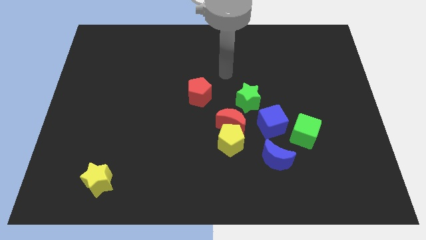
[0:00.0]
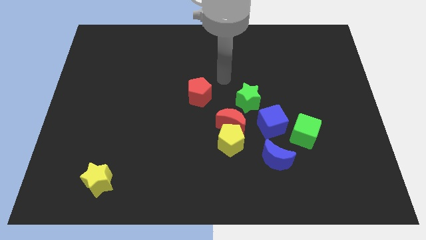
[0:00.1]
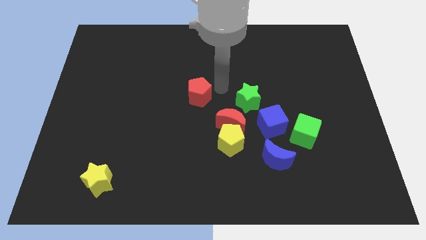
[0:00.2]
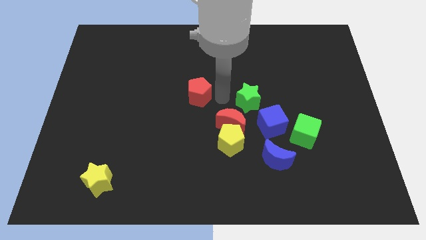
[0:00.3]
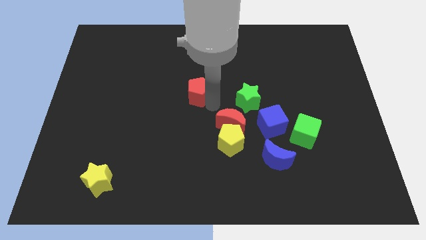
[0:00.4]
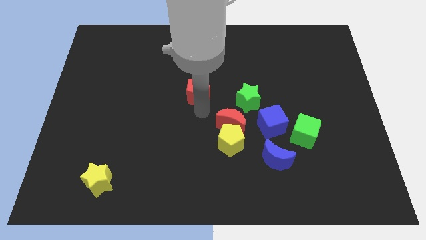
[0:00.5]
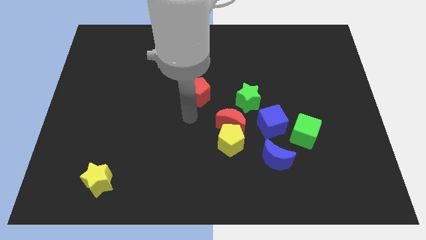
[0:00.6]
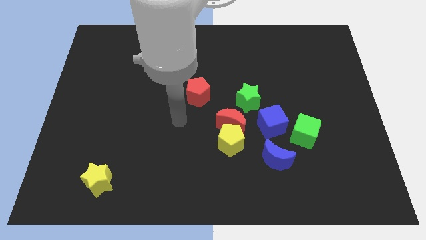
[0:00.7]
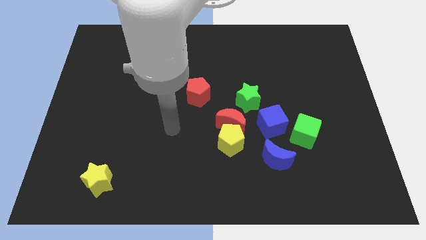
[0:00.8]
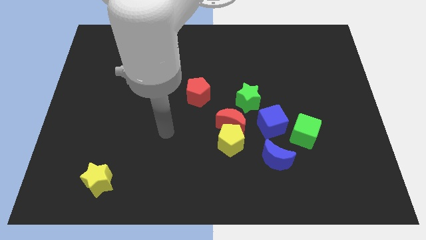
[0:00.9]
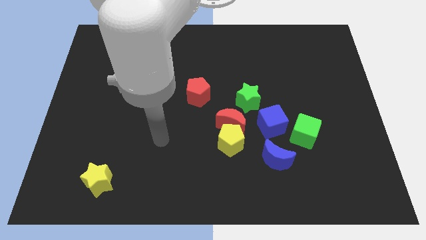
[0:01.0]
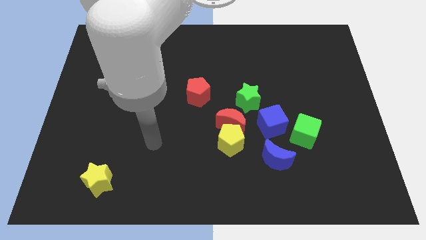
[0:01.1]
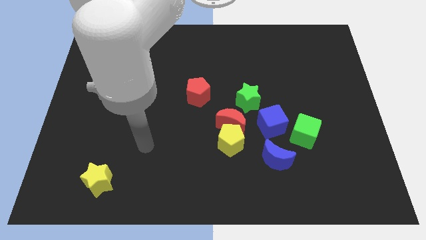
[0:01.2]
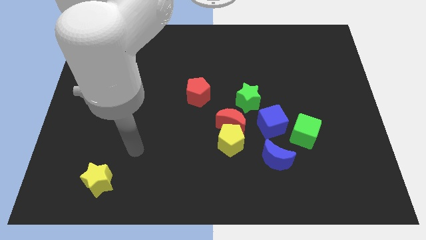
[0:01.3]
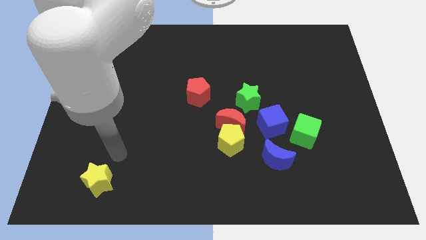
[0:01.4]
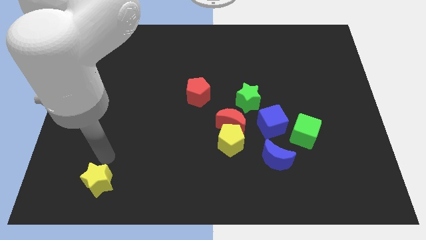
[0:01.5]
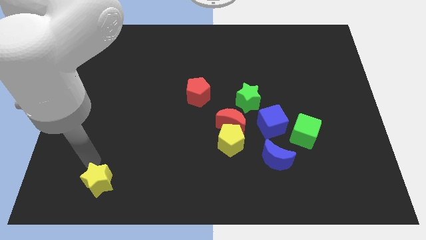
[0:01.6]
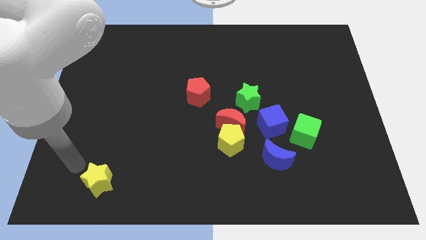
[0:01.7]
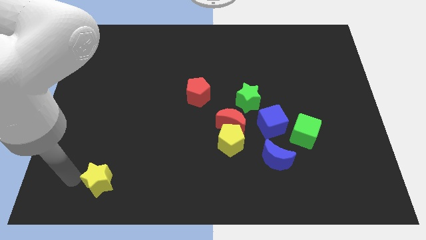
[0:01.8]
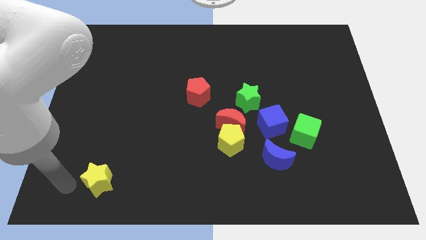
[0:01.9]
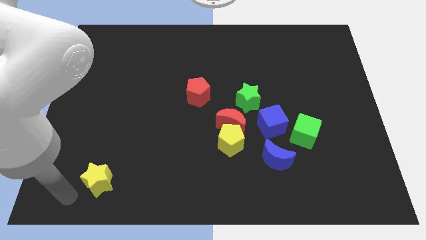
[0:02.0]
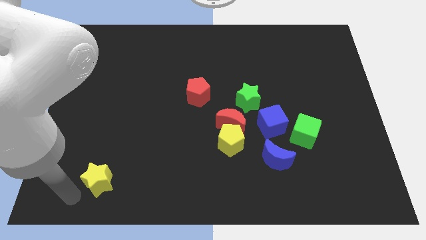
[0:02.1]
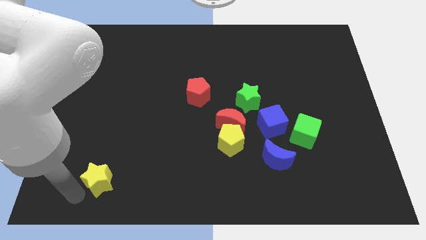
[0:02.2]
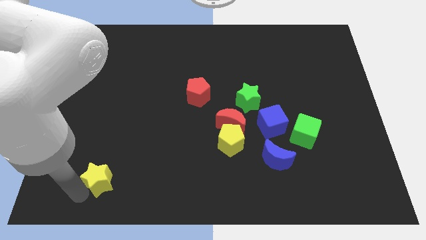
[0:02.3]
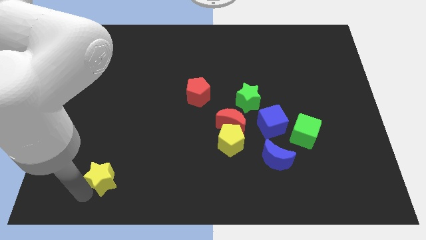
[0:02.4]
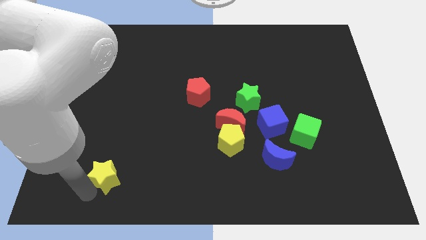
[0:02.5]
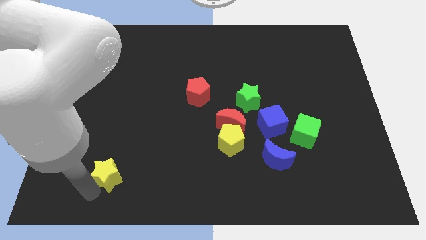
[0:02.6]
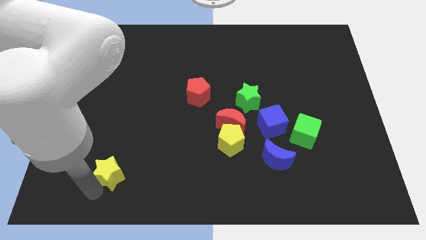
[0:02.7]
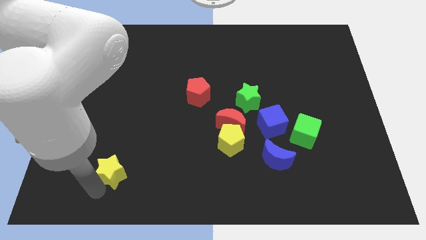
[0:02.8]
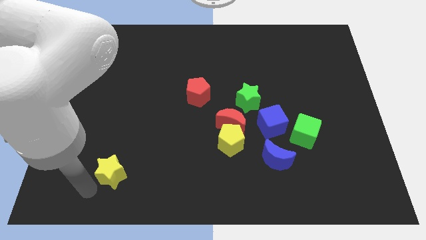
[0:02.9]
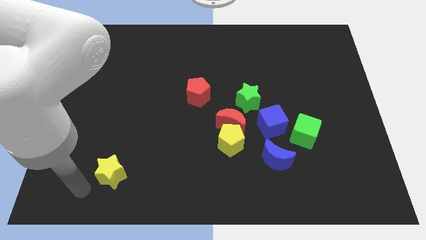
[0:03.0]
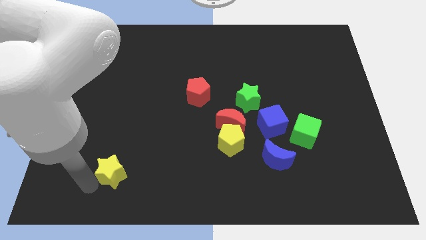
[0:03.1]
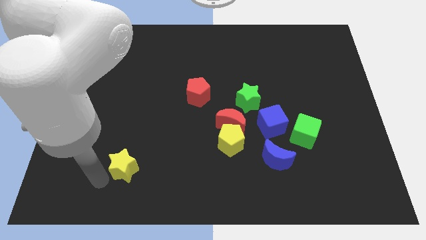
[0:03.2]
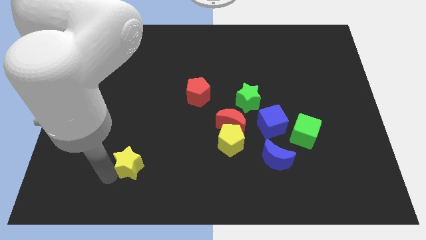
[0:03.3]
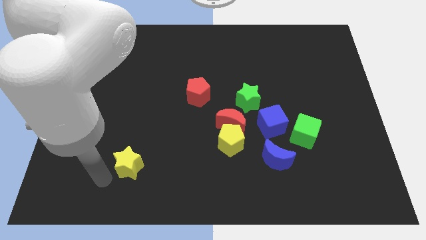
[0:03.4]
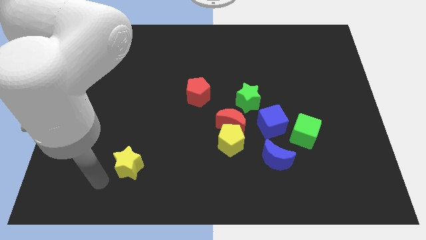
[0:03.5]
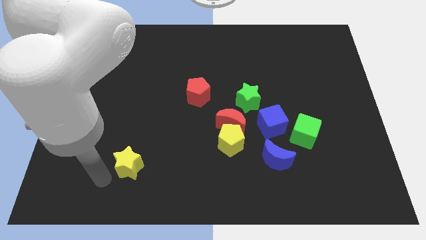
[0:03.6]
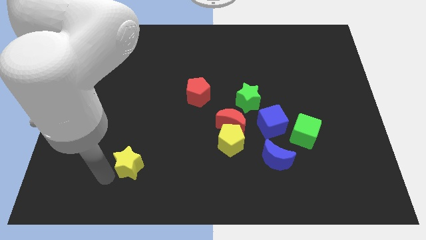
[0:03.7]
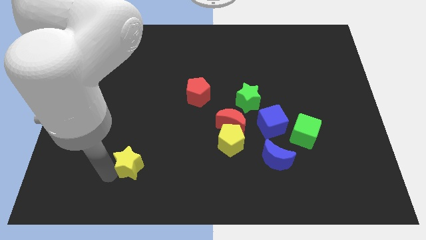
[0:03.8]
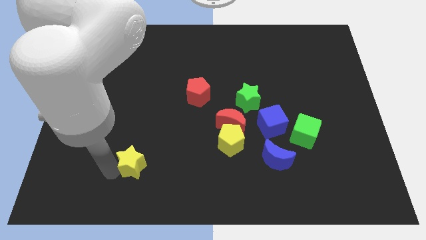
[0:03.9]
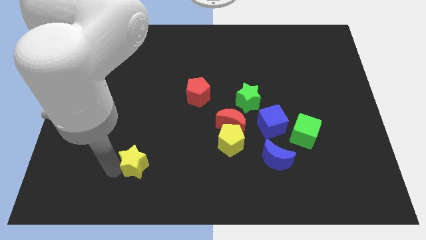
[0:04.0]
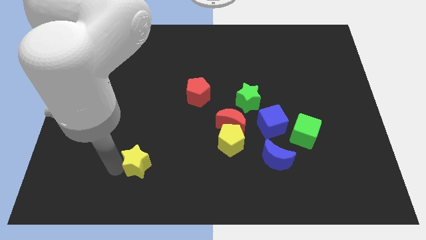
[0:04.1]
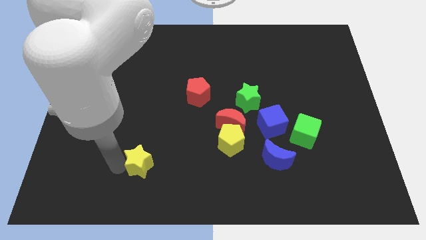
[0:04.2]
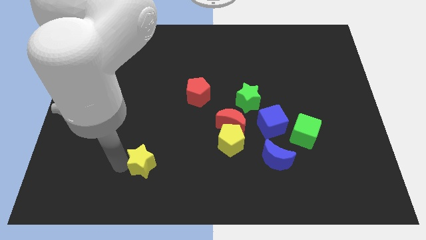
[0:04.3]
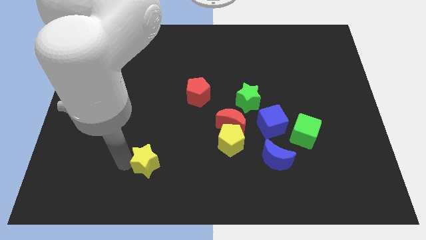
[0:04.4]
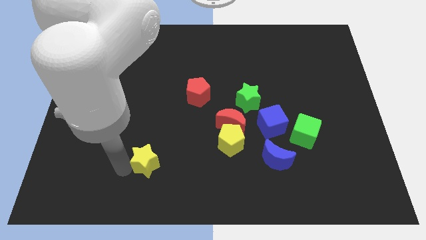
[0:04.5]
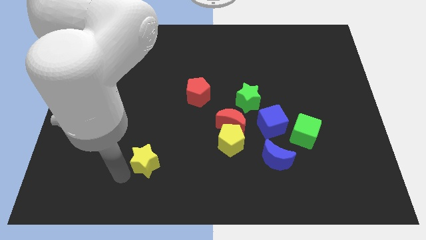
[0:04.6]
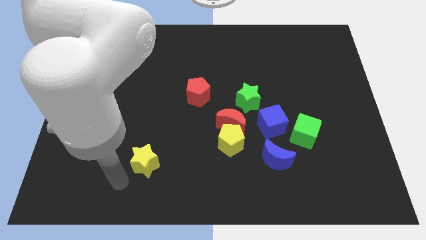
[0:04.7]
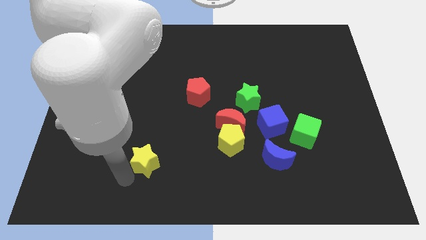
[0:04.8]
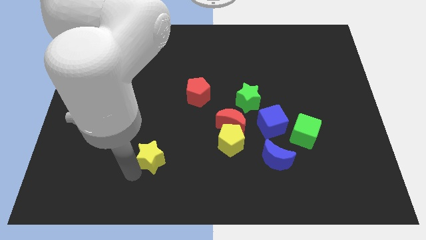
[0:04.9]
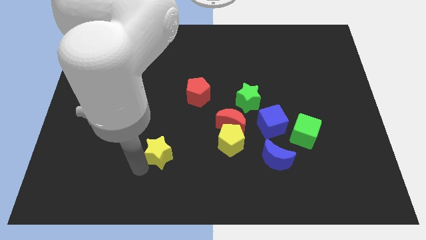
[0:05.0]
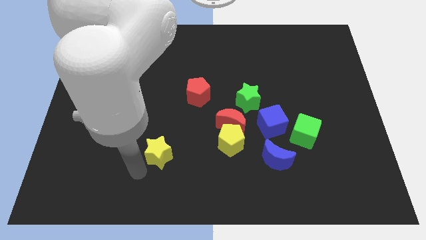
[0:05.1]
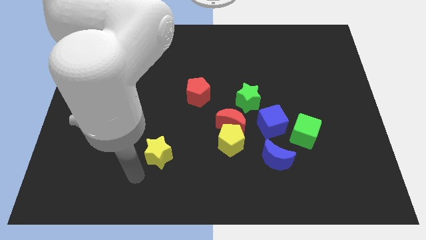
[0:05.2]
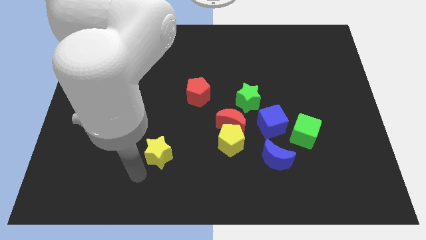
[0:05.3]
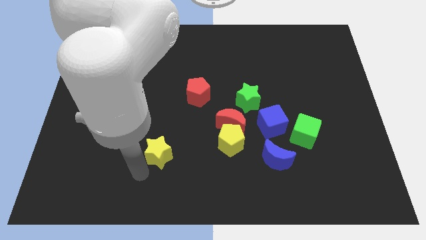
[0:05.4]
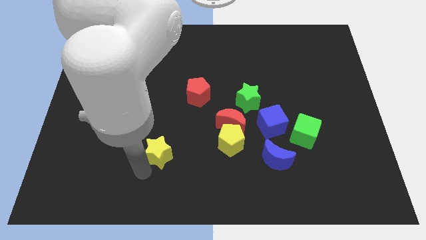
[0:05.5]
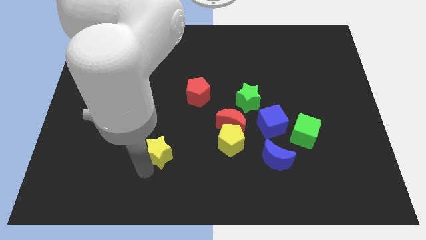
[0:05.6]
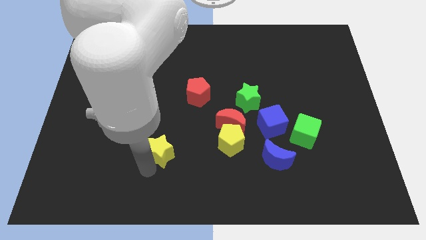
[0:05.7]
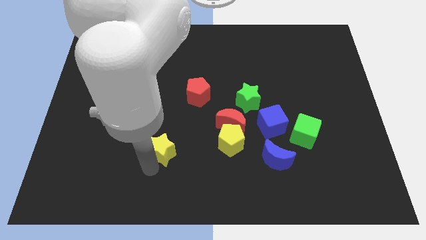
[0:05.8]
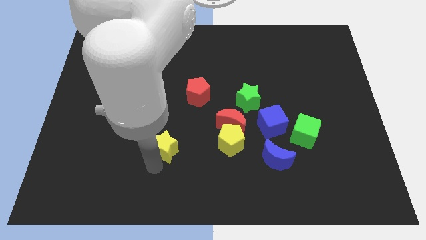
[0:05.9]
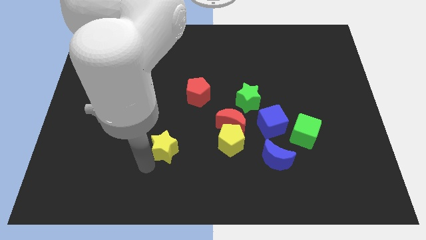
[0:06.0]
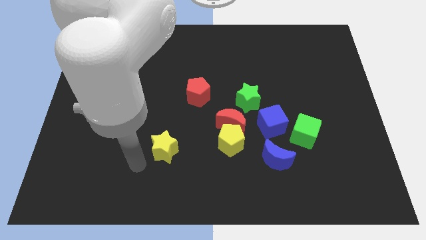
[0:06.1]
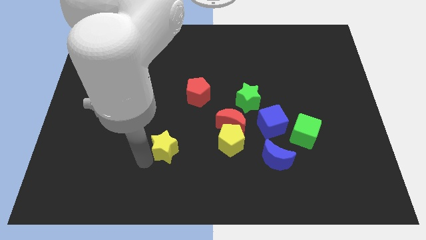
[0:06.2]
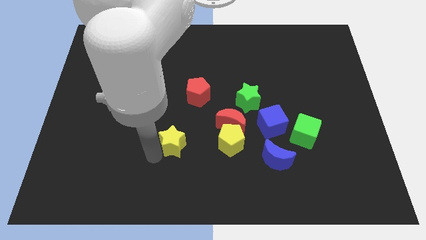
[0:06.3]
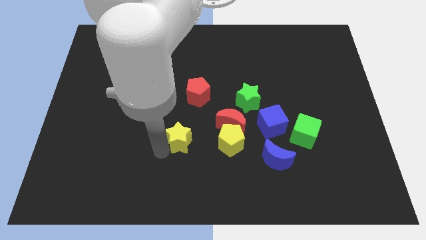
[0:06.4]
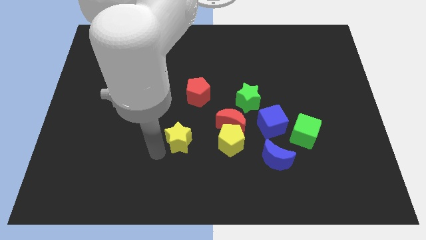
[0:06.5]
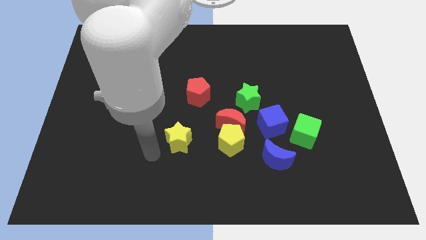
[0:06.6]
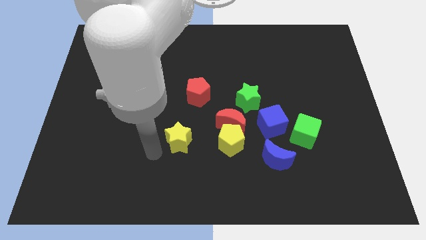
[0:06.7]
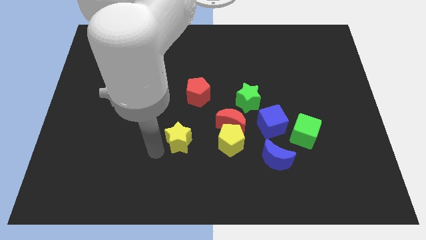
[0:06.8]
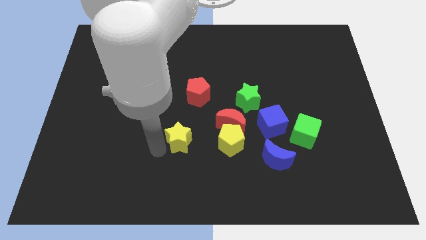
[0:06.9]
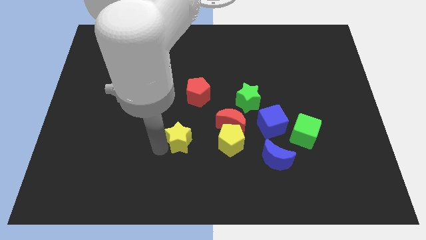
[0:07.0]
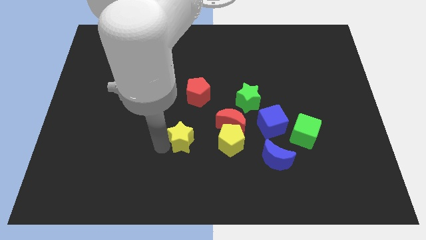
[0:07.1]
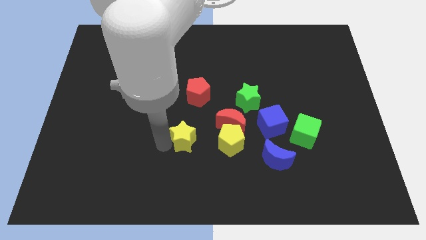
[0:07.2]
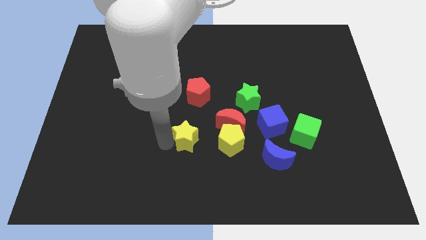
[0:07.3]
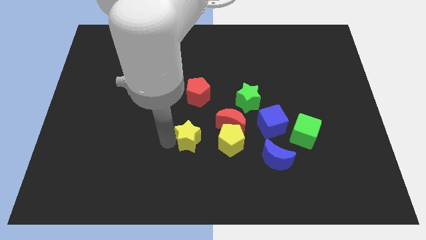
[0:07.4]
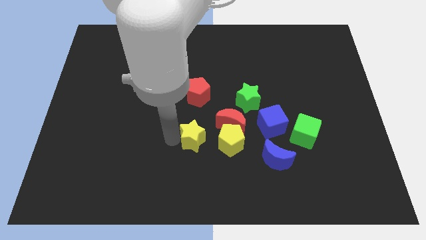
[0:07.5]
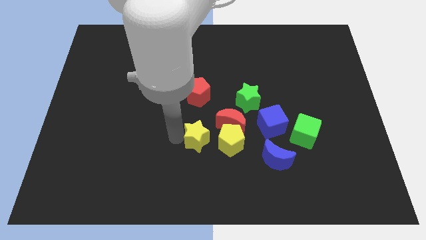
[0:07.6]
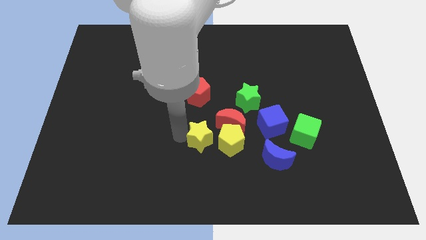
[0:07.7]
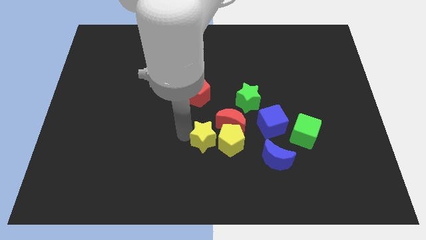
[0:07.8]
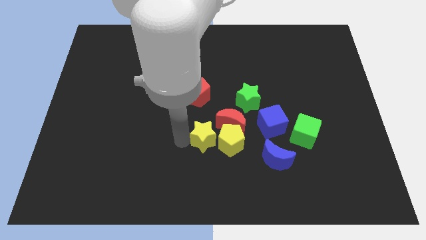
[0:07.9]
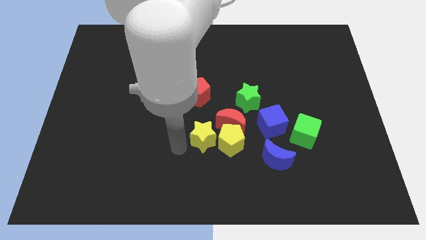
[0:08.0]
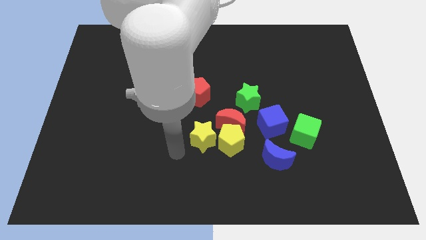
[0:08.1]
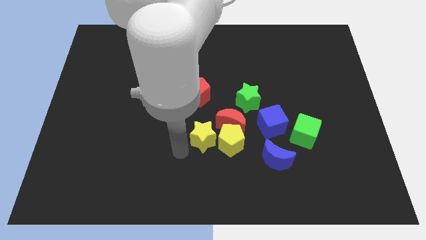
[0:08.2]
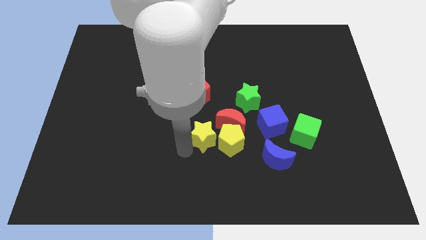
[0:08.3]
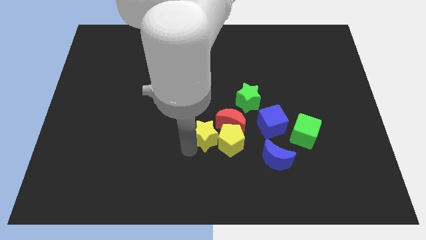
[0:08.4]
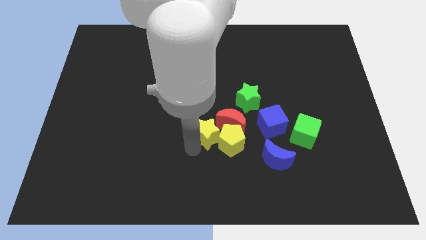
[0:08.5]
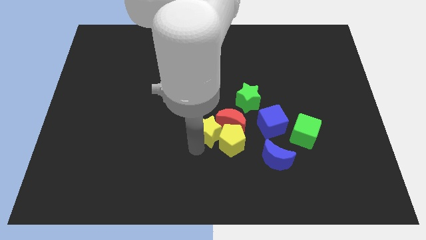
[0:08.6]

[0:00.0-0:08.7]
put the yellow star to the red moon
